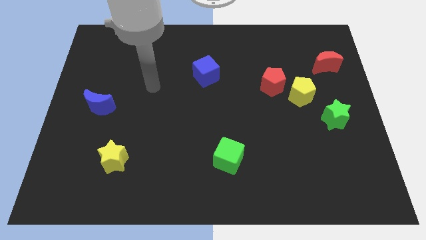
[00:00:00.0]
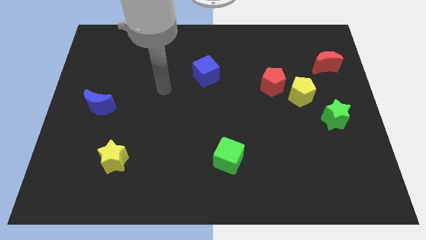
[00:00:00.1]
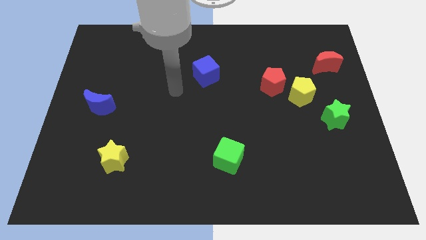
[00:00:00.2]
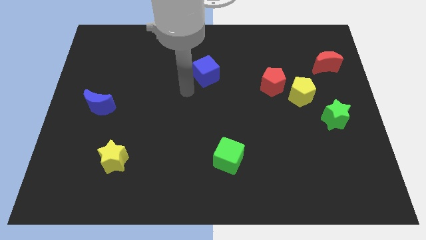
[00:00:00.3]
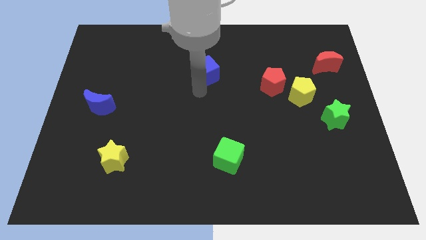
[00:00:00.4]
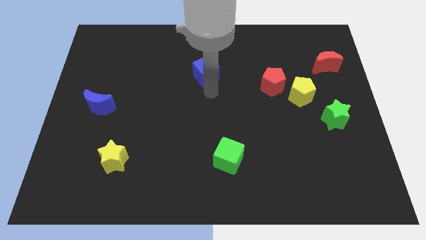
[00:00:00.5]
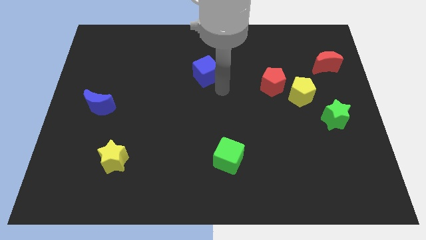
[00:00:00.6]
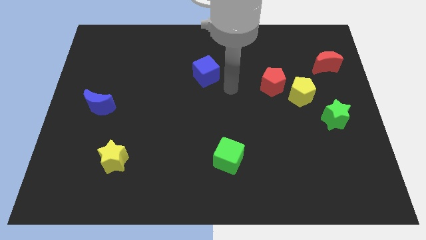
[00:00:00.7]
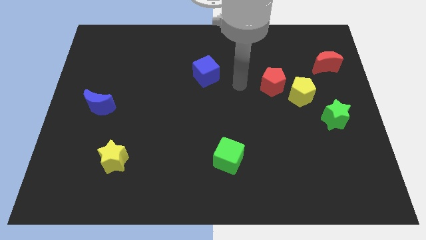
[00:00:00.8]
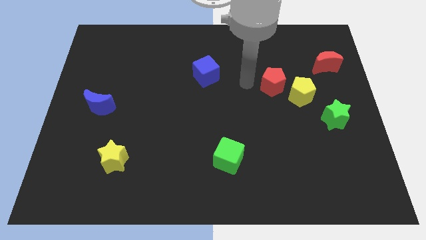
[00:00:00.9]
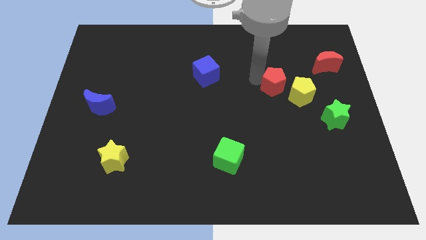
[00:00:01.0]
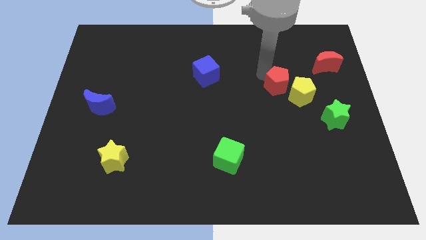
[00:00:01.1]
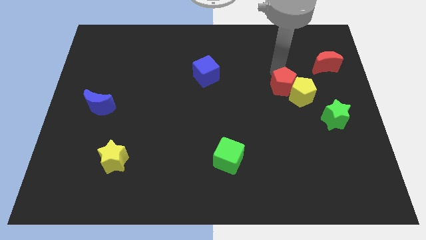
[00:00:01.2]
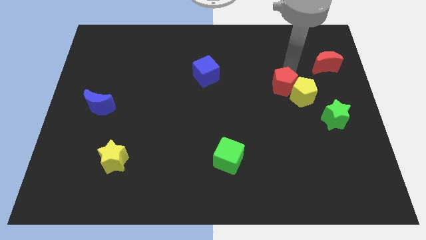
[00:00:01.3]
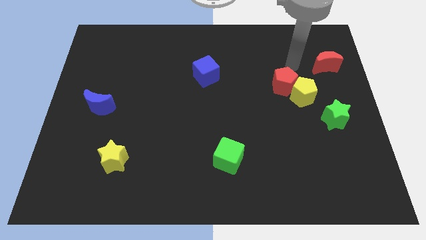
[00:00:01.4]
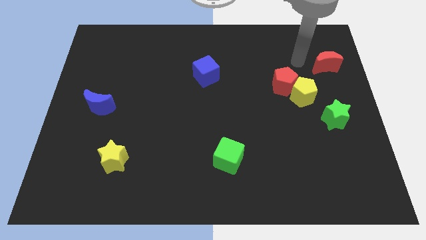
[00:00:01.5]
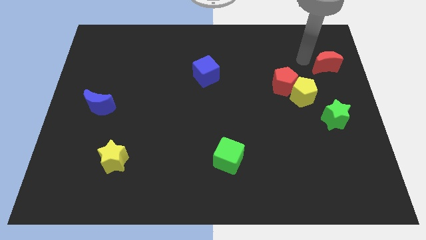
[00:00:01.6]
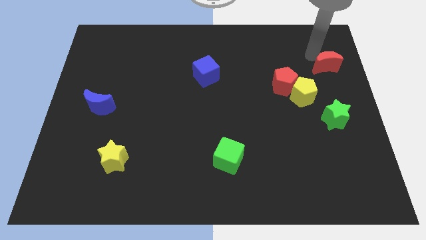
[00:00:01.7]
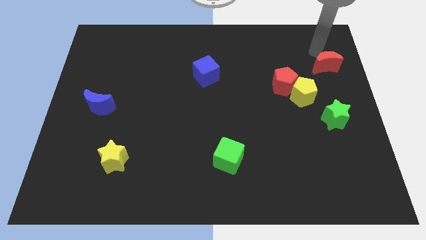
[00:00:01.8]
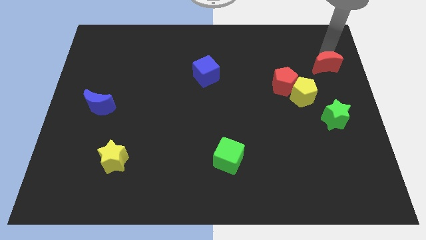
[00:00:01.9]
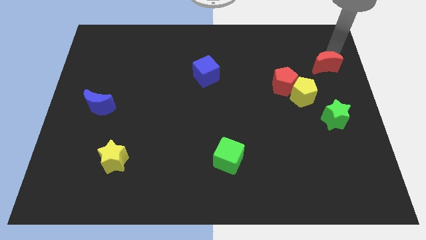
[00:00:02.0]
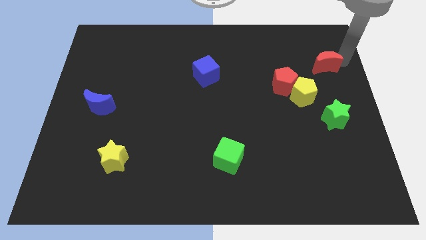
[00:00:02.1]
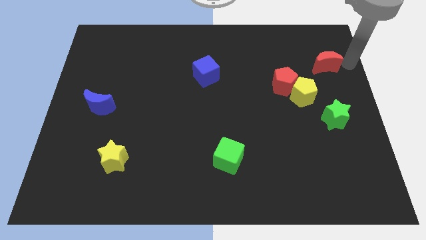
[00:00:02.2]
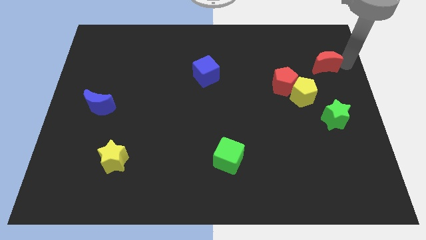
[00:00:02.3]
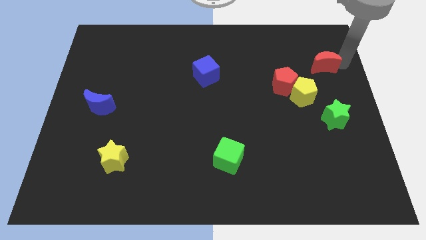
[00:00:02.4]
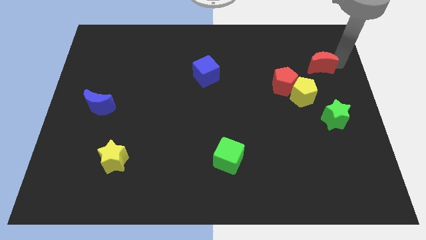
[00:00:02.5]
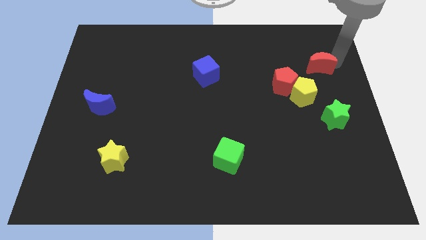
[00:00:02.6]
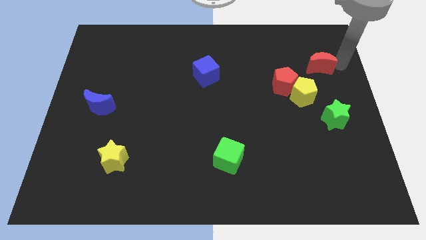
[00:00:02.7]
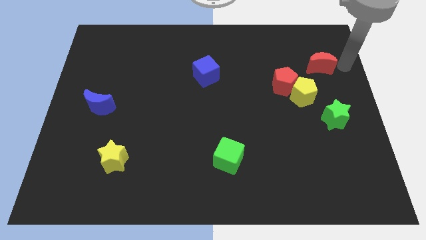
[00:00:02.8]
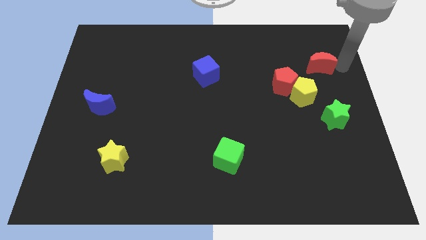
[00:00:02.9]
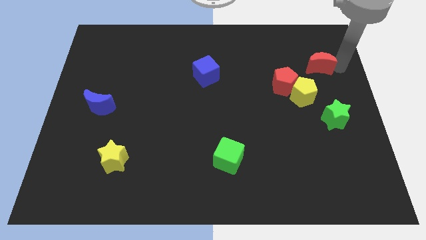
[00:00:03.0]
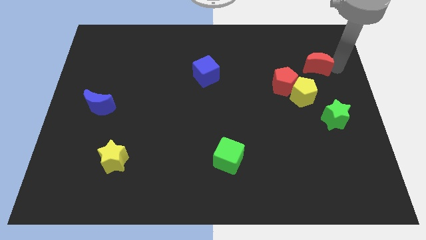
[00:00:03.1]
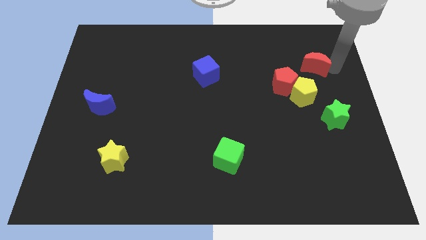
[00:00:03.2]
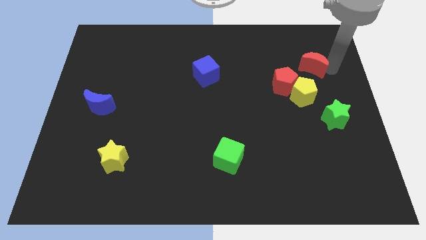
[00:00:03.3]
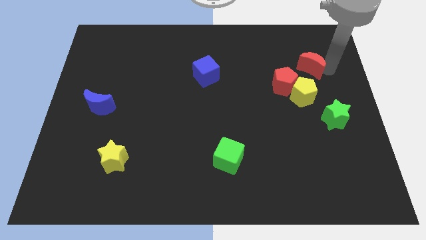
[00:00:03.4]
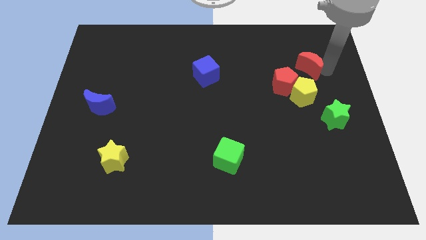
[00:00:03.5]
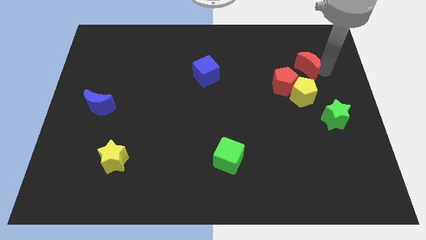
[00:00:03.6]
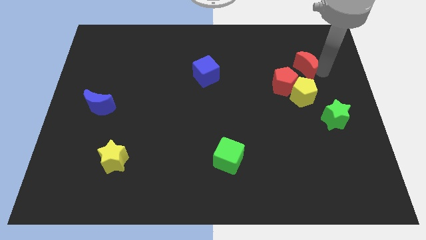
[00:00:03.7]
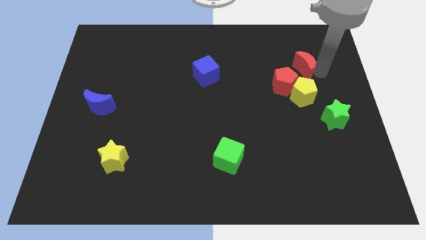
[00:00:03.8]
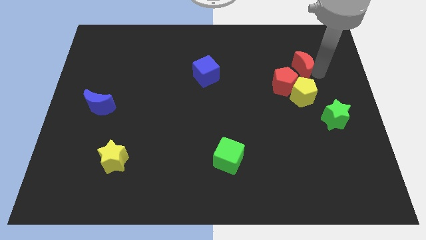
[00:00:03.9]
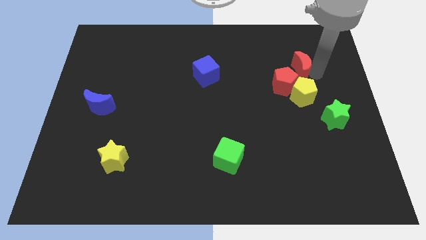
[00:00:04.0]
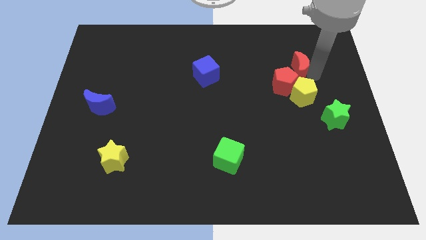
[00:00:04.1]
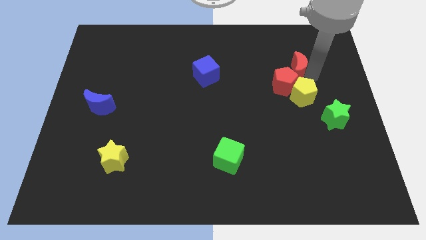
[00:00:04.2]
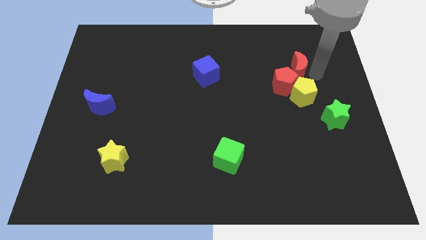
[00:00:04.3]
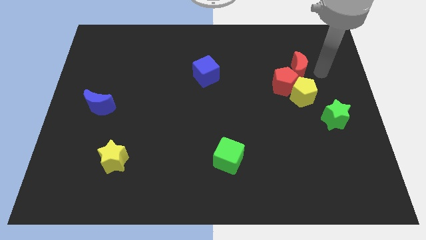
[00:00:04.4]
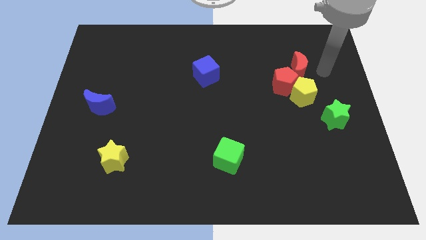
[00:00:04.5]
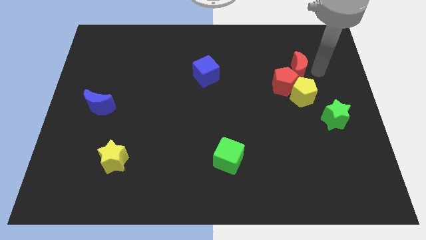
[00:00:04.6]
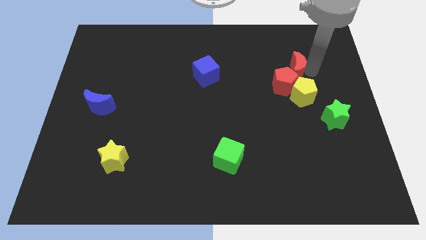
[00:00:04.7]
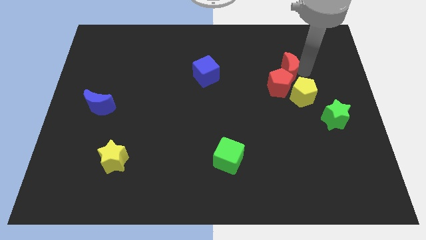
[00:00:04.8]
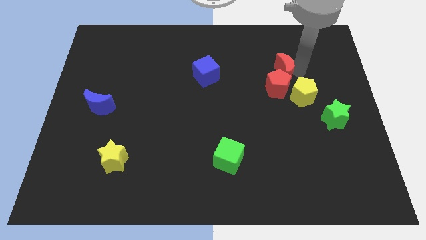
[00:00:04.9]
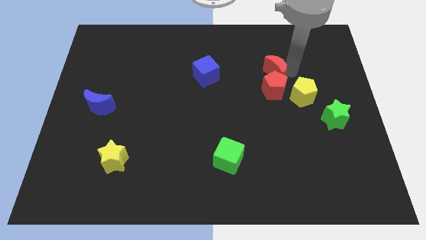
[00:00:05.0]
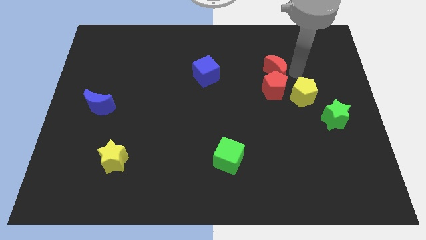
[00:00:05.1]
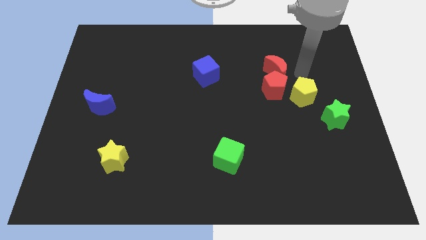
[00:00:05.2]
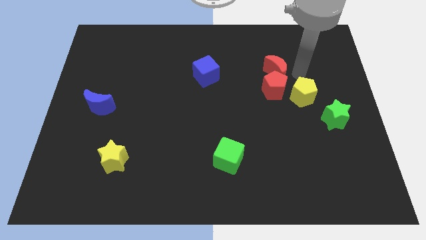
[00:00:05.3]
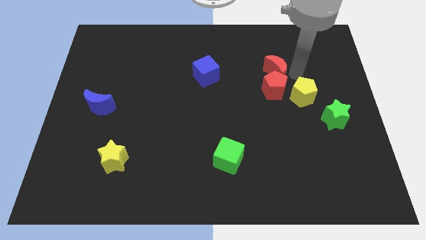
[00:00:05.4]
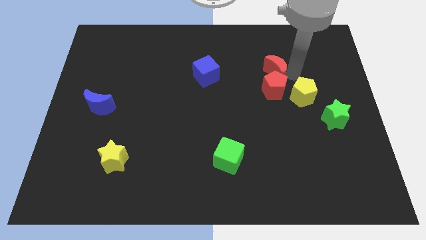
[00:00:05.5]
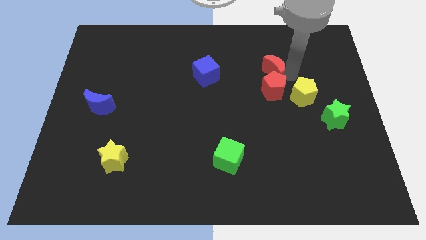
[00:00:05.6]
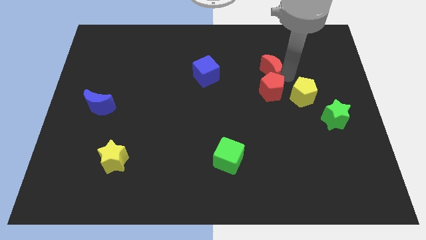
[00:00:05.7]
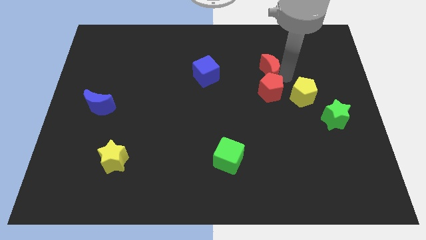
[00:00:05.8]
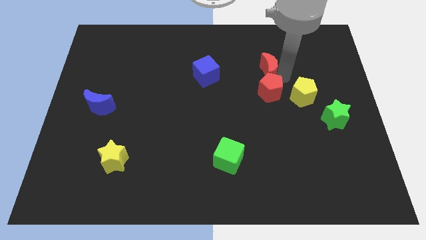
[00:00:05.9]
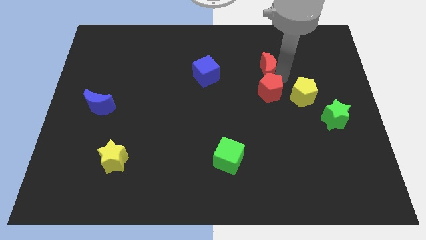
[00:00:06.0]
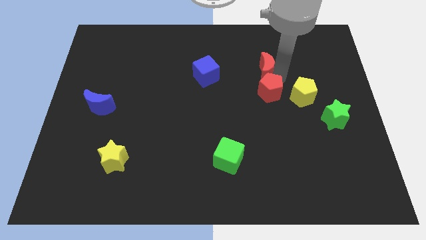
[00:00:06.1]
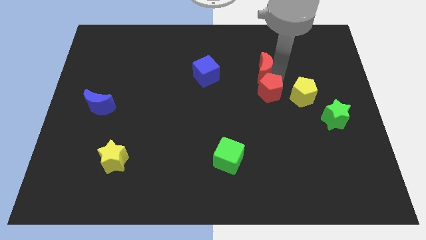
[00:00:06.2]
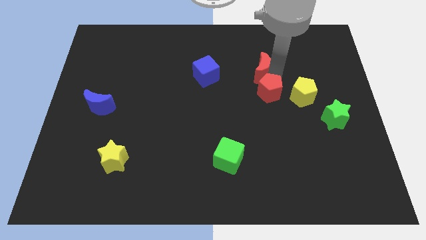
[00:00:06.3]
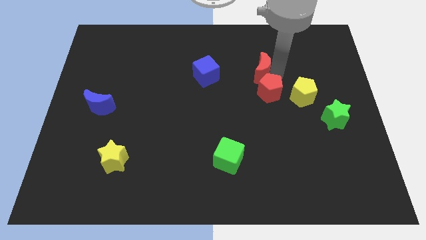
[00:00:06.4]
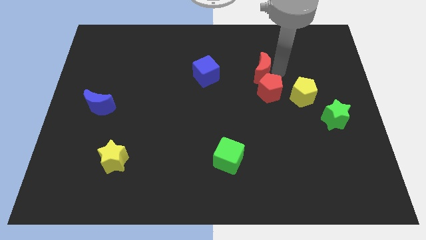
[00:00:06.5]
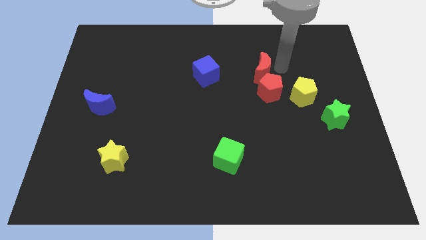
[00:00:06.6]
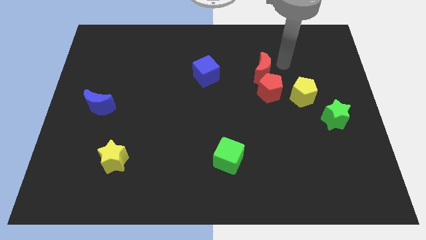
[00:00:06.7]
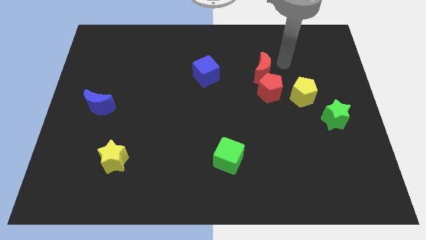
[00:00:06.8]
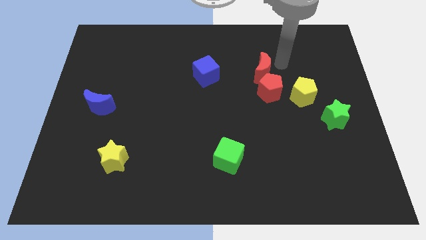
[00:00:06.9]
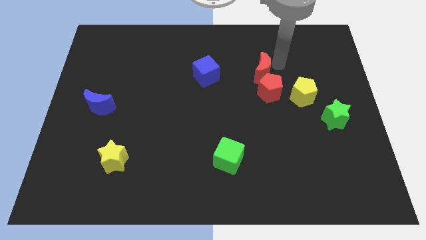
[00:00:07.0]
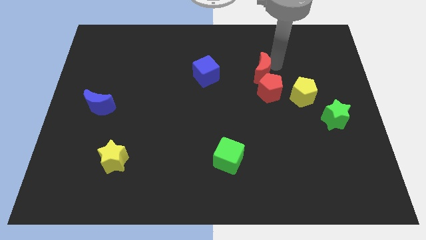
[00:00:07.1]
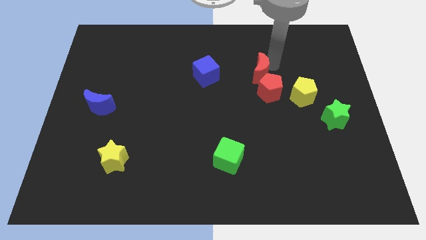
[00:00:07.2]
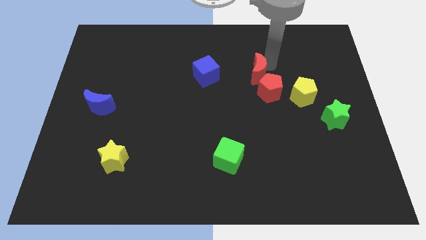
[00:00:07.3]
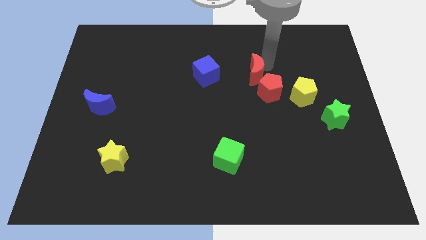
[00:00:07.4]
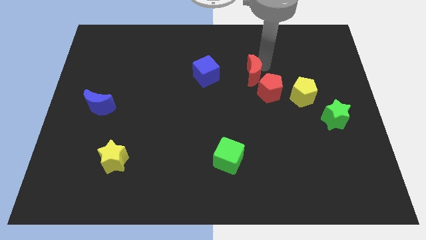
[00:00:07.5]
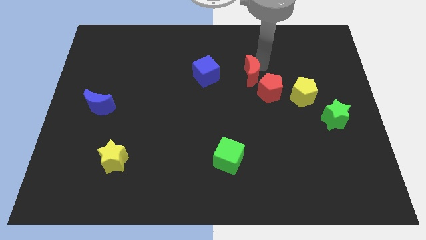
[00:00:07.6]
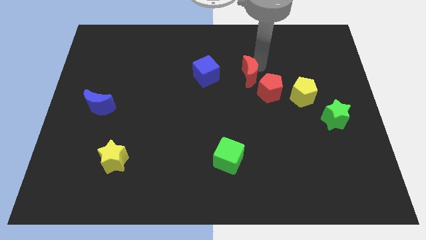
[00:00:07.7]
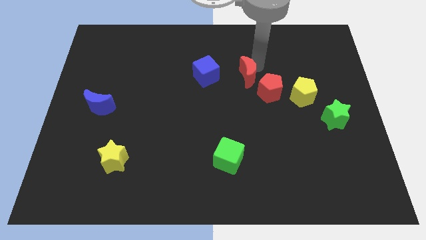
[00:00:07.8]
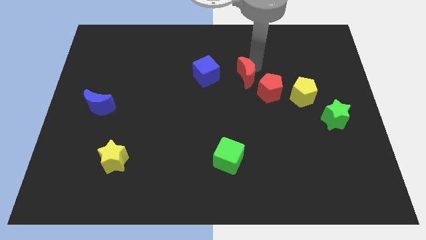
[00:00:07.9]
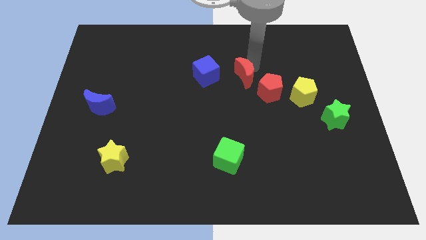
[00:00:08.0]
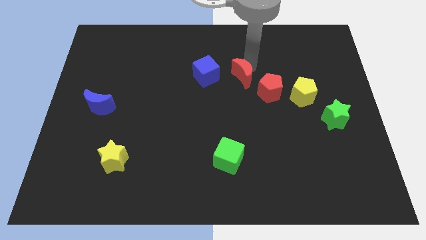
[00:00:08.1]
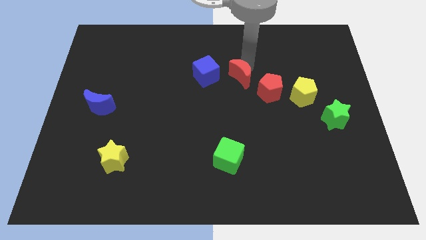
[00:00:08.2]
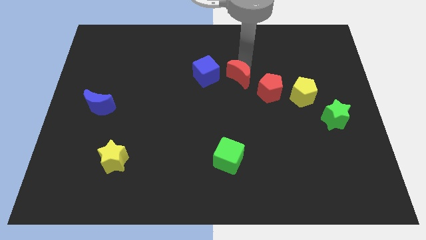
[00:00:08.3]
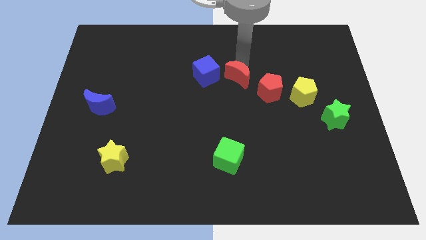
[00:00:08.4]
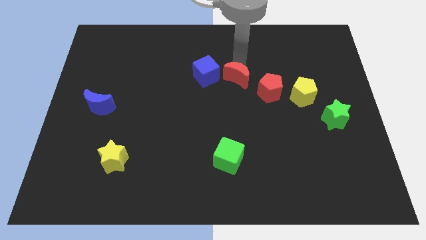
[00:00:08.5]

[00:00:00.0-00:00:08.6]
slide the red moon to the bottom right of the blue cube
